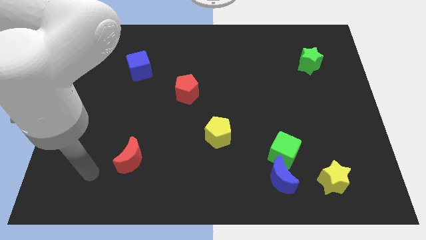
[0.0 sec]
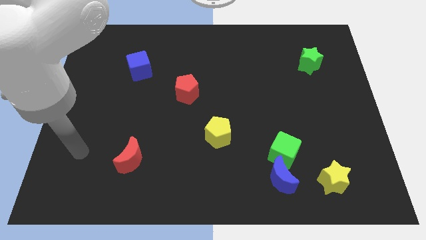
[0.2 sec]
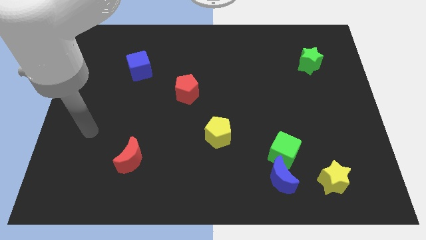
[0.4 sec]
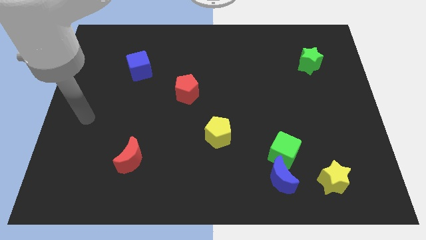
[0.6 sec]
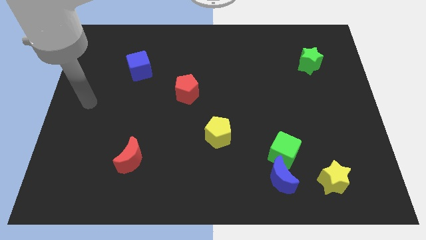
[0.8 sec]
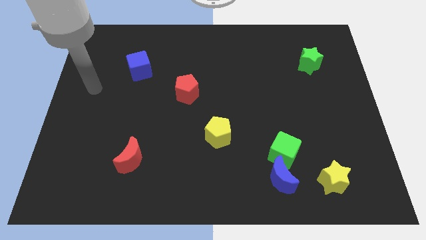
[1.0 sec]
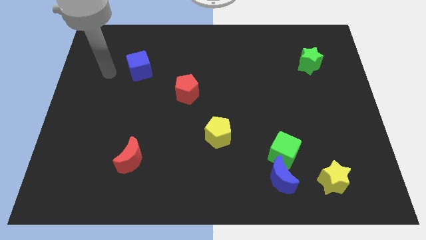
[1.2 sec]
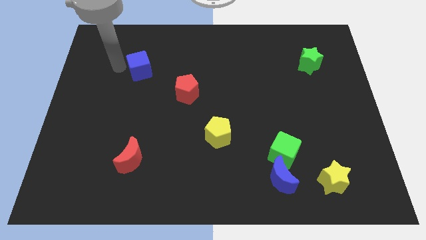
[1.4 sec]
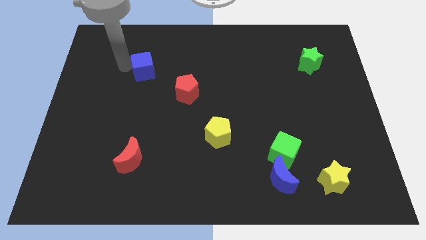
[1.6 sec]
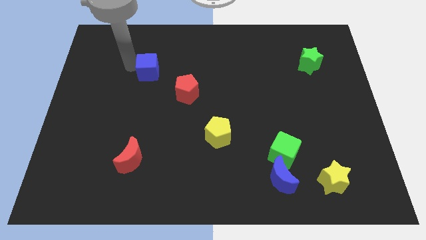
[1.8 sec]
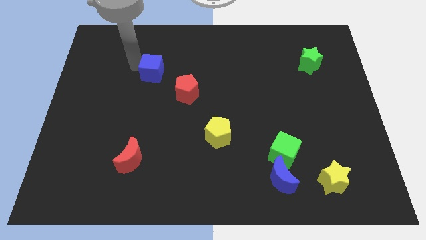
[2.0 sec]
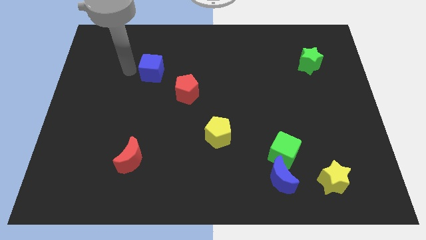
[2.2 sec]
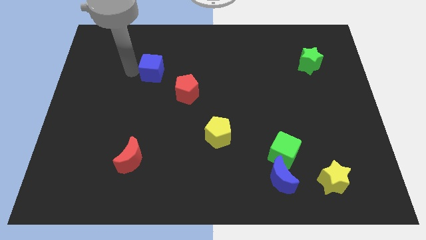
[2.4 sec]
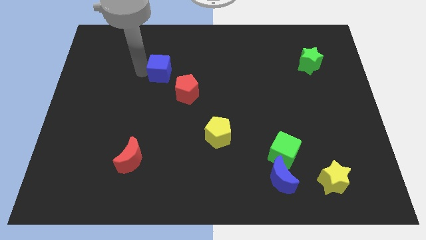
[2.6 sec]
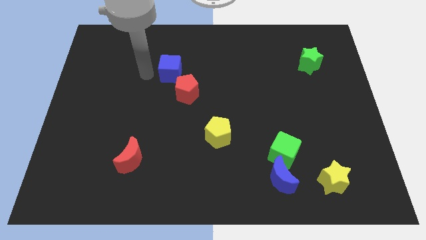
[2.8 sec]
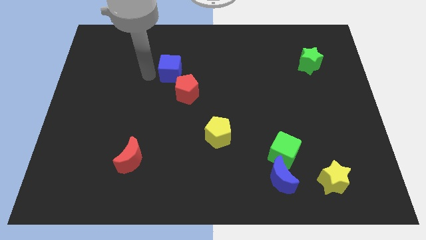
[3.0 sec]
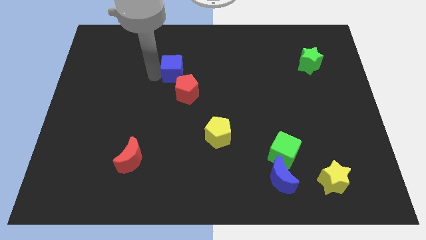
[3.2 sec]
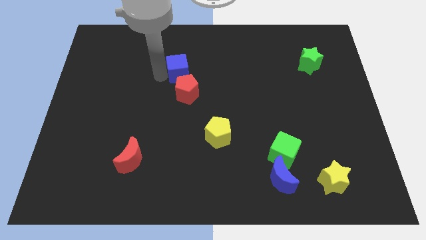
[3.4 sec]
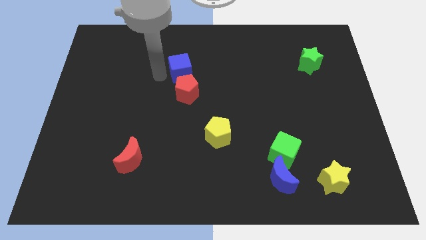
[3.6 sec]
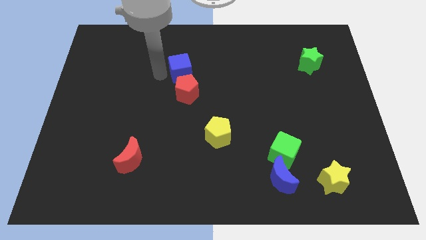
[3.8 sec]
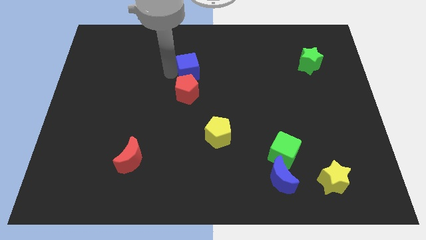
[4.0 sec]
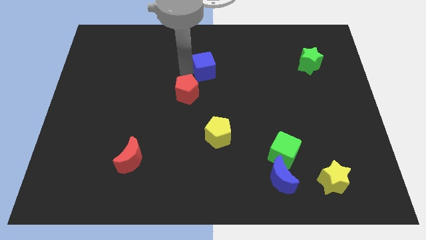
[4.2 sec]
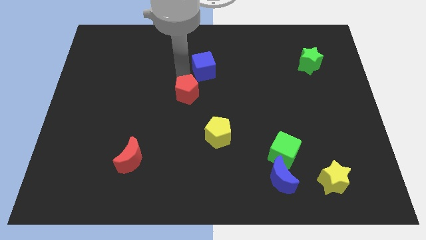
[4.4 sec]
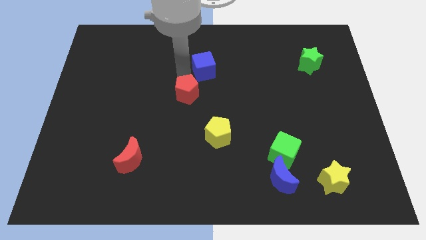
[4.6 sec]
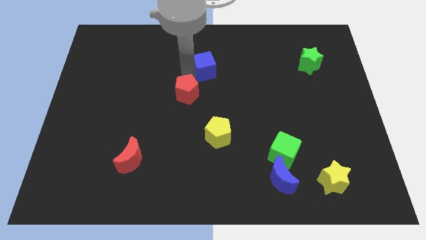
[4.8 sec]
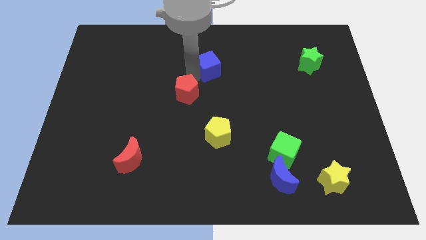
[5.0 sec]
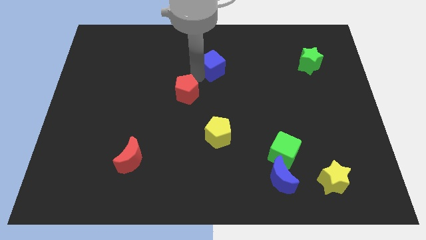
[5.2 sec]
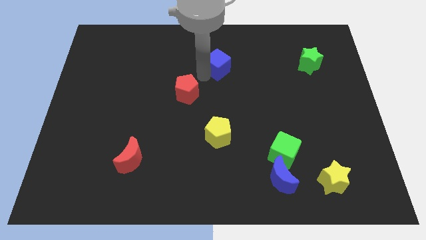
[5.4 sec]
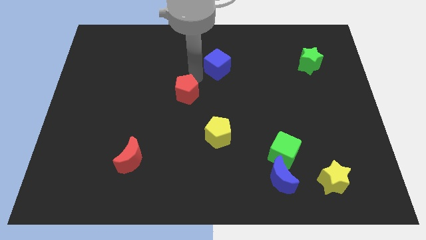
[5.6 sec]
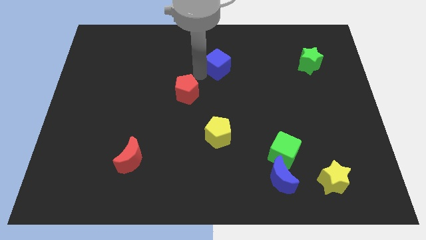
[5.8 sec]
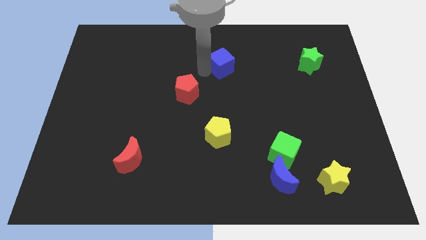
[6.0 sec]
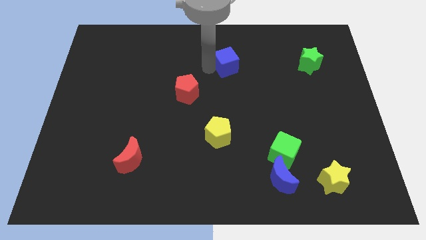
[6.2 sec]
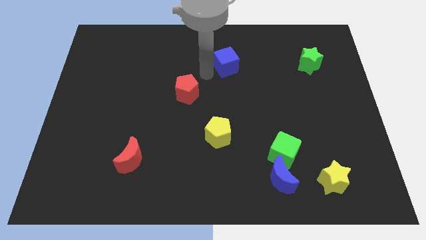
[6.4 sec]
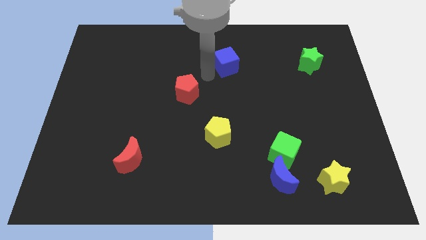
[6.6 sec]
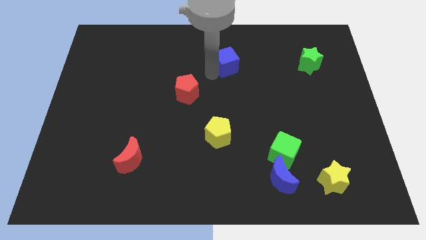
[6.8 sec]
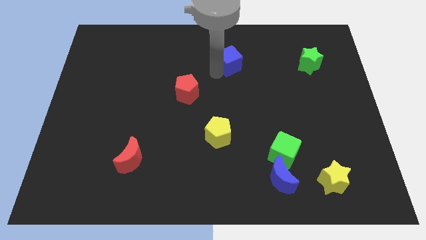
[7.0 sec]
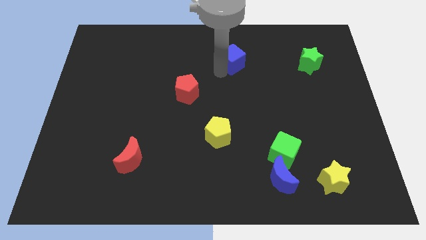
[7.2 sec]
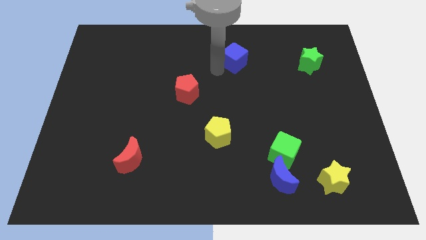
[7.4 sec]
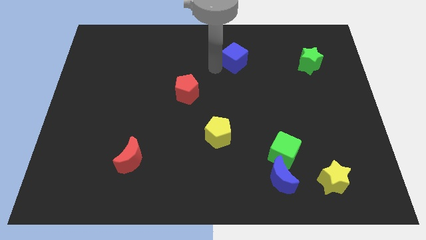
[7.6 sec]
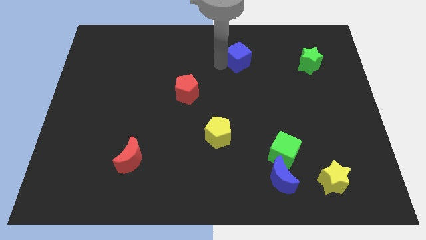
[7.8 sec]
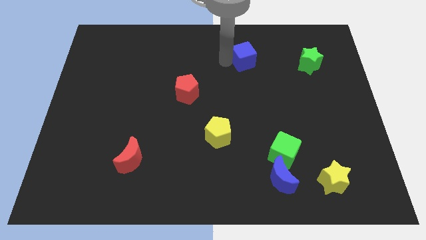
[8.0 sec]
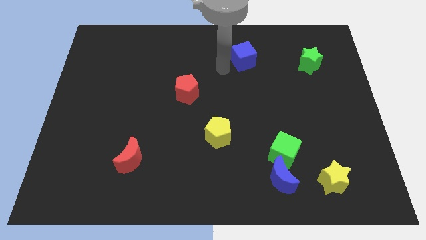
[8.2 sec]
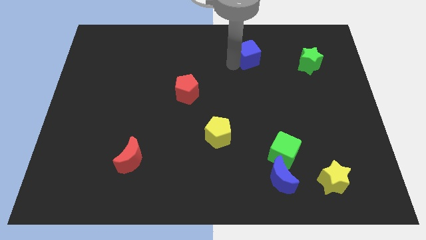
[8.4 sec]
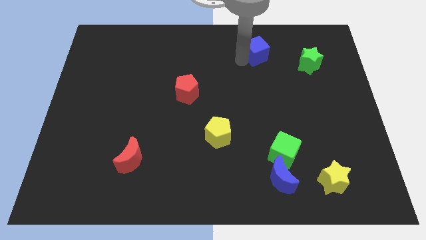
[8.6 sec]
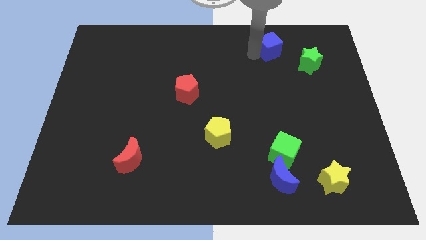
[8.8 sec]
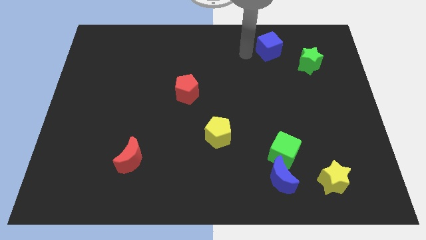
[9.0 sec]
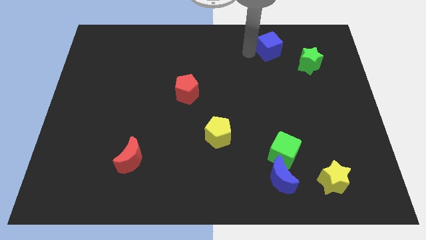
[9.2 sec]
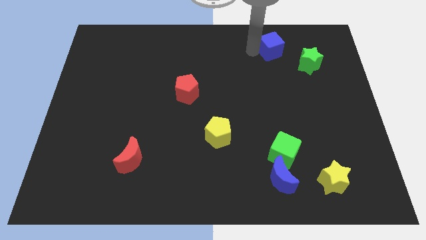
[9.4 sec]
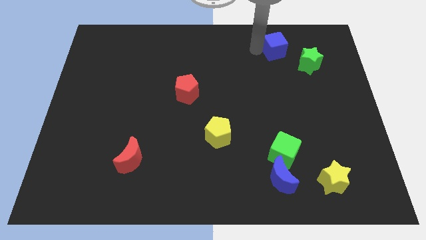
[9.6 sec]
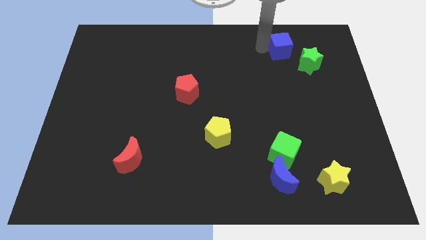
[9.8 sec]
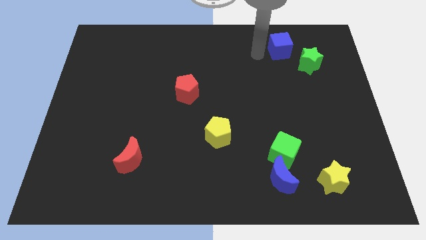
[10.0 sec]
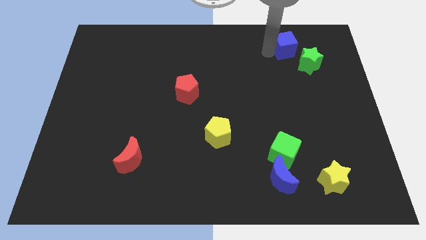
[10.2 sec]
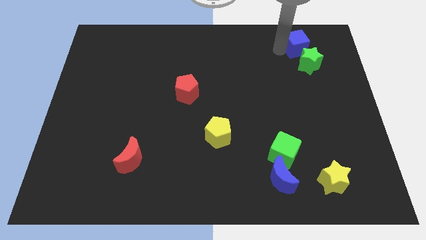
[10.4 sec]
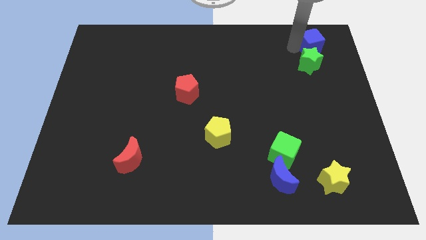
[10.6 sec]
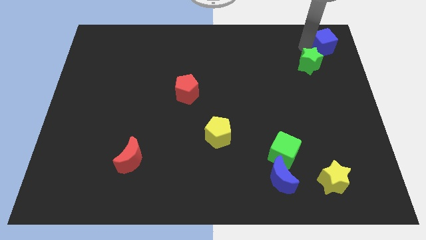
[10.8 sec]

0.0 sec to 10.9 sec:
push the blue cube to the top right corner

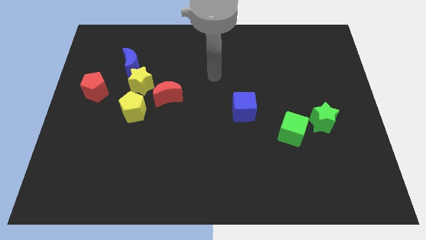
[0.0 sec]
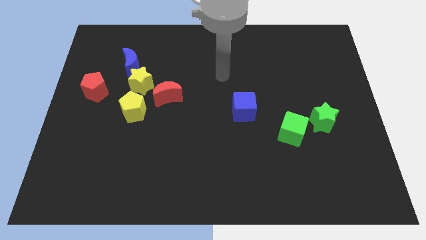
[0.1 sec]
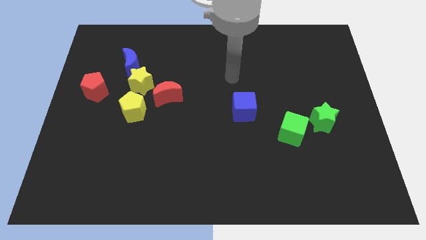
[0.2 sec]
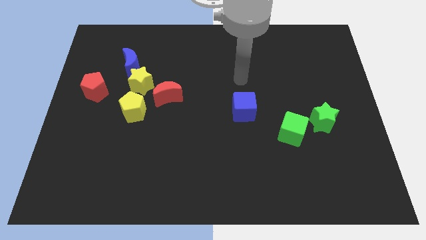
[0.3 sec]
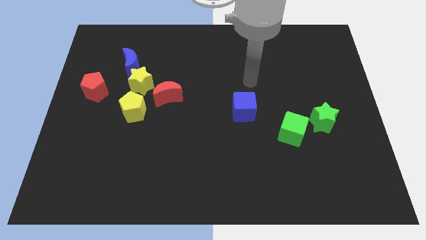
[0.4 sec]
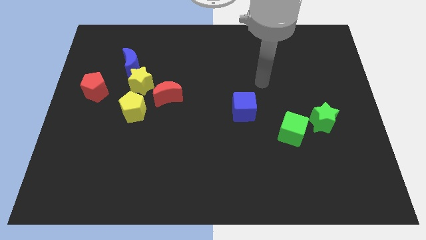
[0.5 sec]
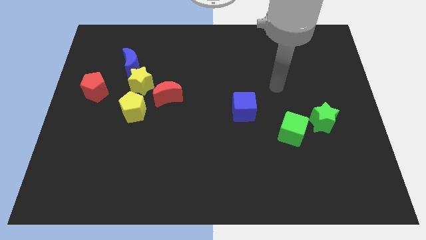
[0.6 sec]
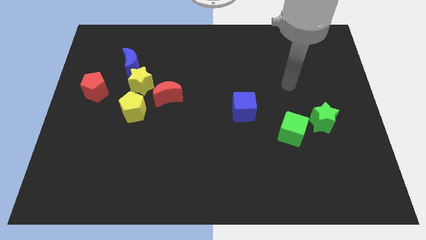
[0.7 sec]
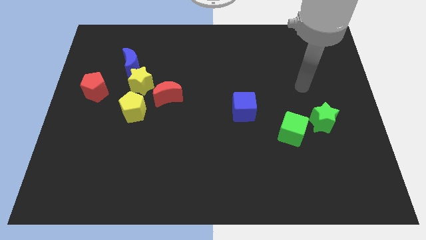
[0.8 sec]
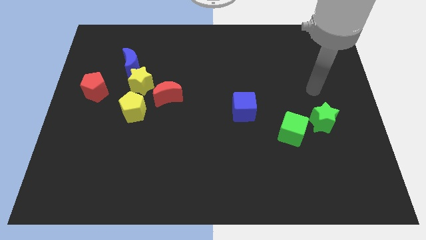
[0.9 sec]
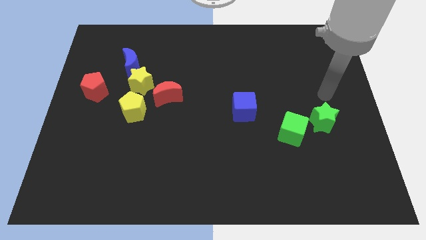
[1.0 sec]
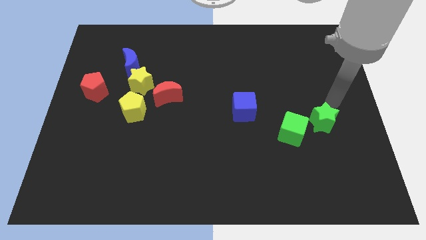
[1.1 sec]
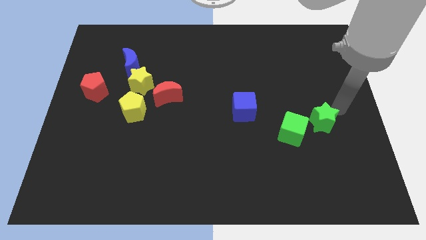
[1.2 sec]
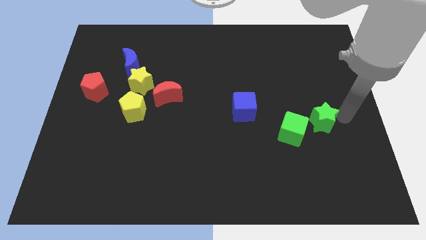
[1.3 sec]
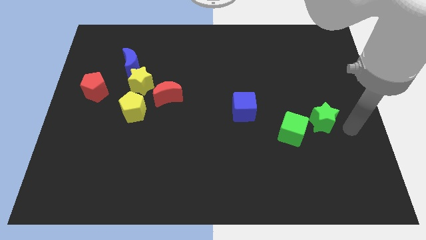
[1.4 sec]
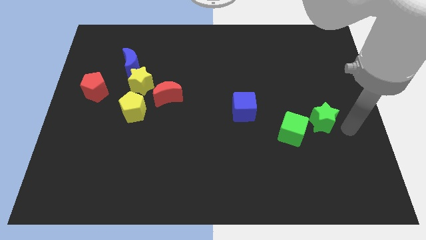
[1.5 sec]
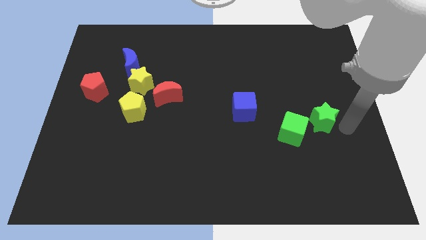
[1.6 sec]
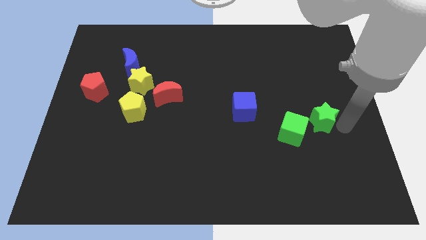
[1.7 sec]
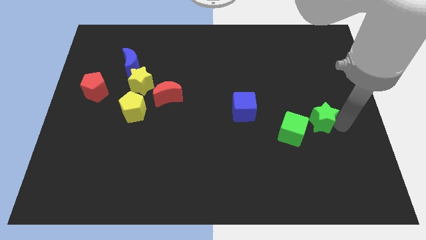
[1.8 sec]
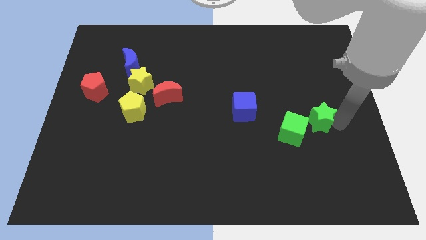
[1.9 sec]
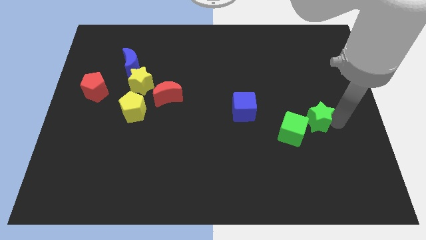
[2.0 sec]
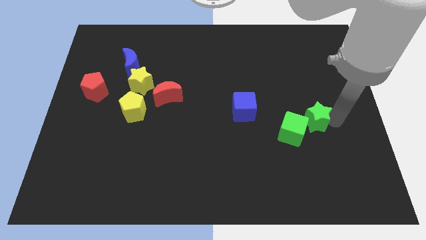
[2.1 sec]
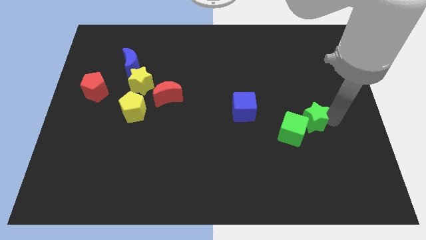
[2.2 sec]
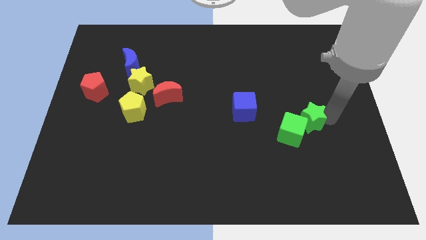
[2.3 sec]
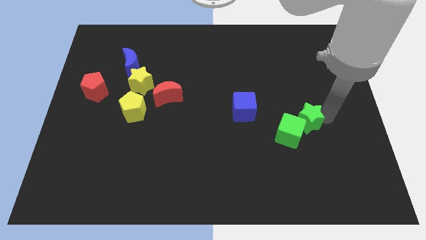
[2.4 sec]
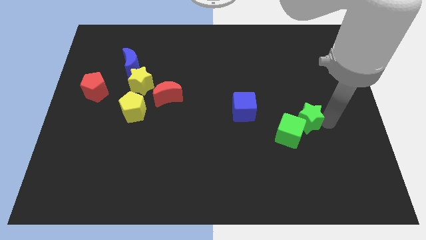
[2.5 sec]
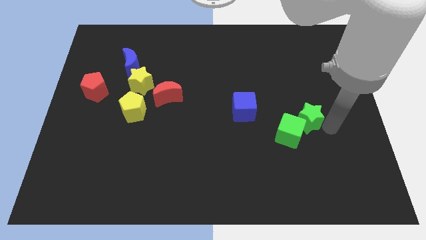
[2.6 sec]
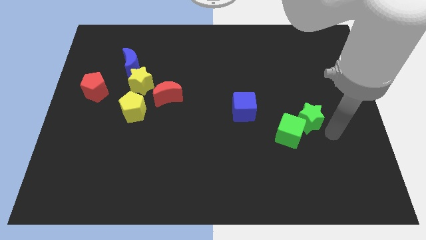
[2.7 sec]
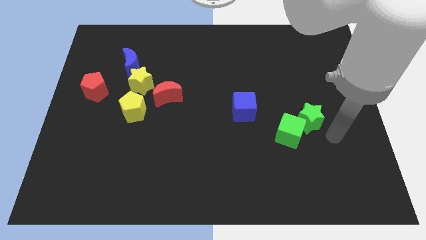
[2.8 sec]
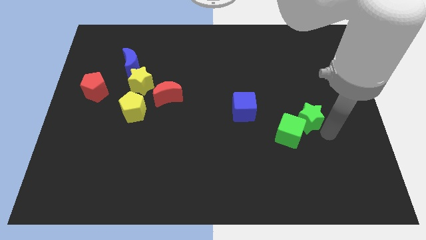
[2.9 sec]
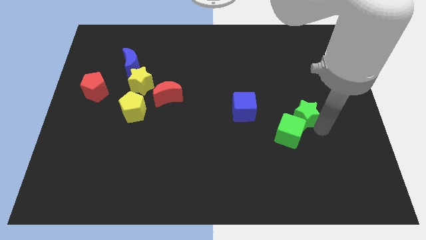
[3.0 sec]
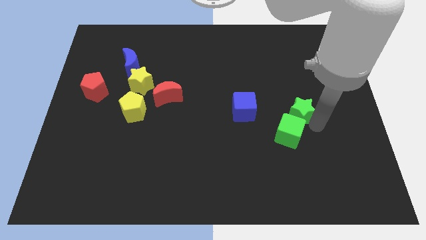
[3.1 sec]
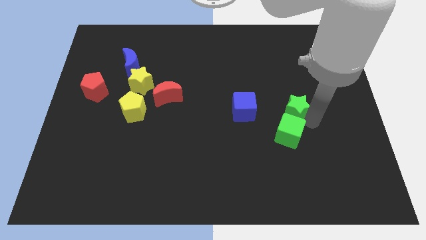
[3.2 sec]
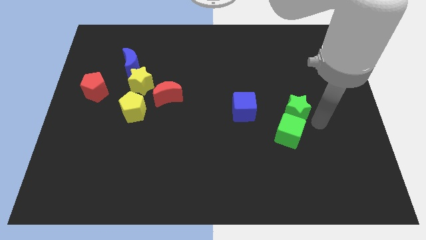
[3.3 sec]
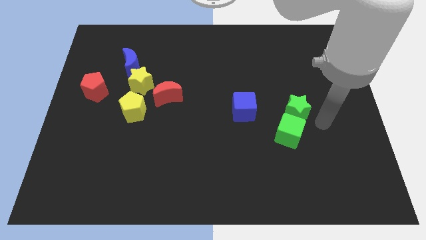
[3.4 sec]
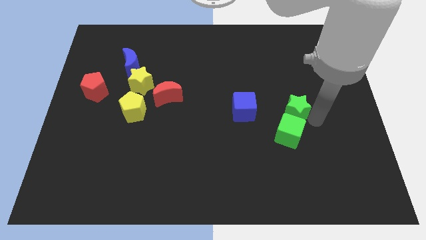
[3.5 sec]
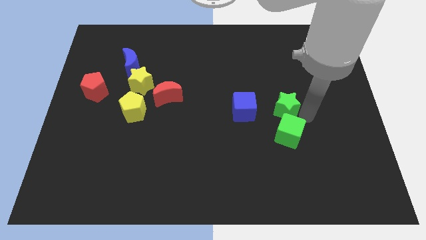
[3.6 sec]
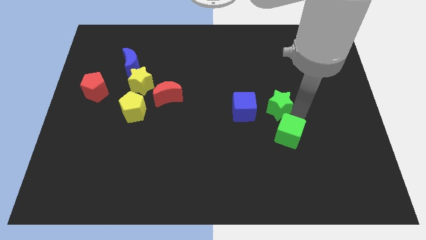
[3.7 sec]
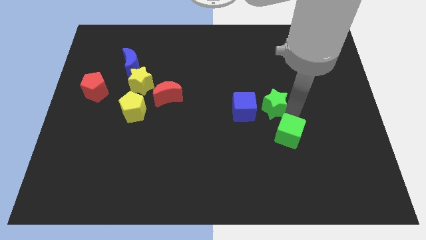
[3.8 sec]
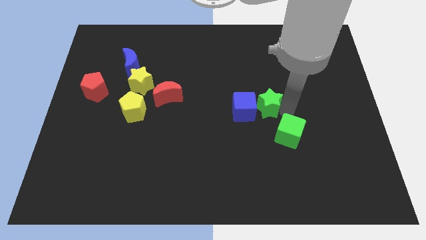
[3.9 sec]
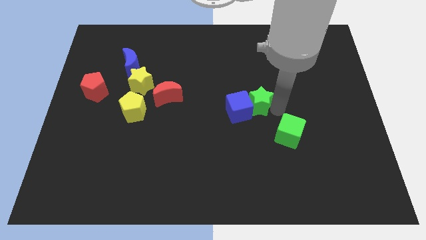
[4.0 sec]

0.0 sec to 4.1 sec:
slide the green star to the middle of the board
